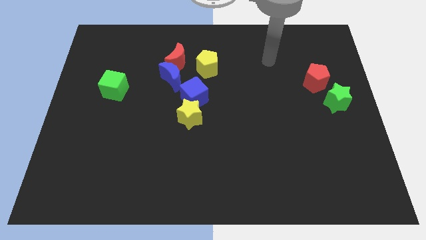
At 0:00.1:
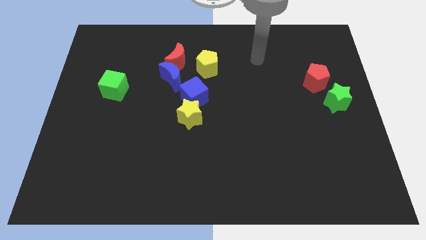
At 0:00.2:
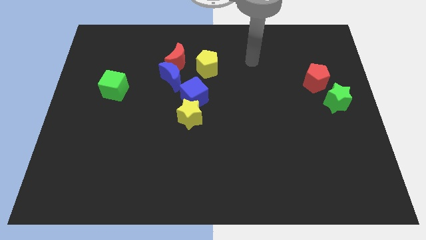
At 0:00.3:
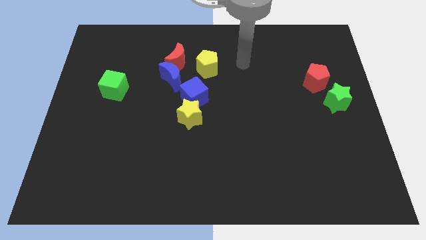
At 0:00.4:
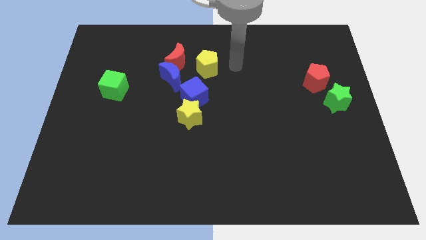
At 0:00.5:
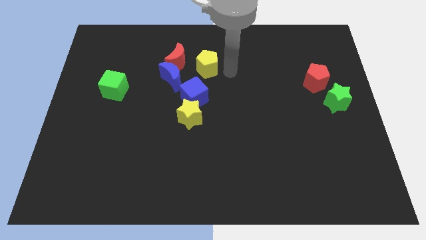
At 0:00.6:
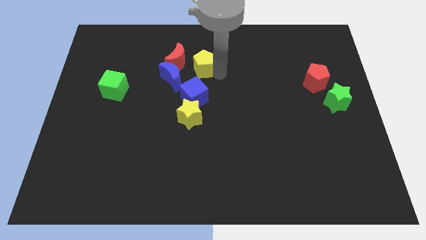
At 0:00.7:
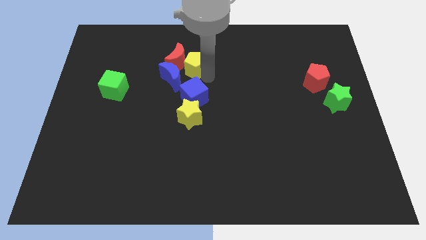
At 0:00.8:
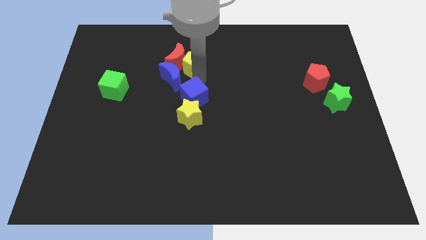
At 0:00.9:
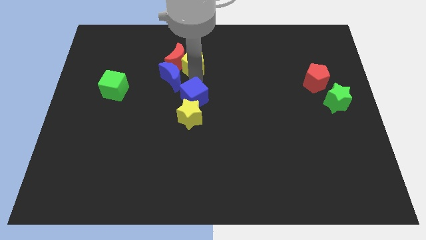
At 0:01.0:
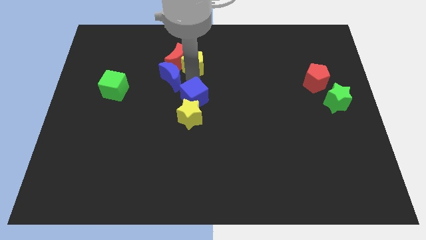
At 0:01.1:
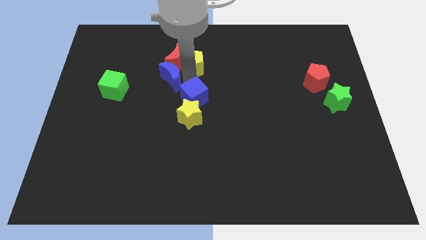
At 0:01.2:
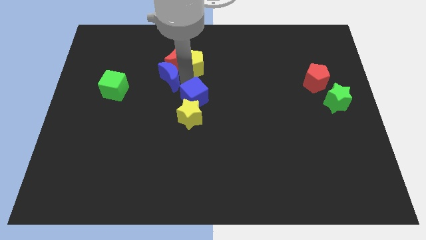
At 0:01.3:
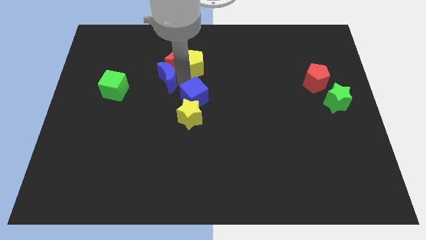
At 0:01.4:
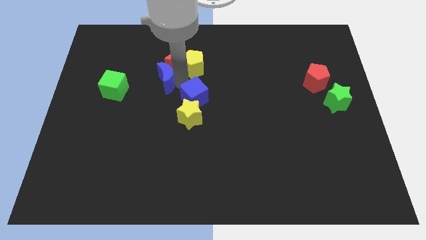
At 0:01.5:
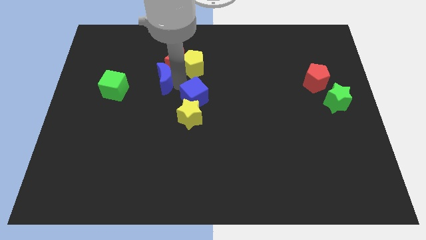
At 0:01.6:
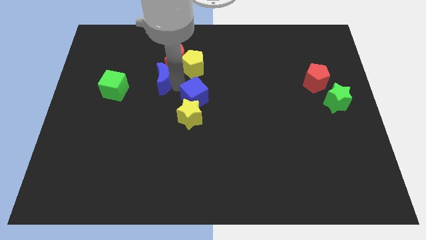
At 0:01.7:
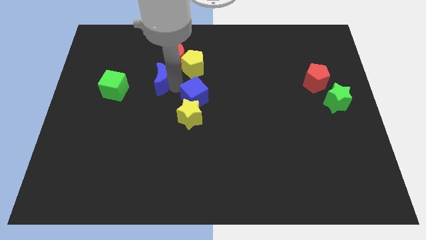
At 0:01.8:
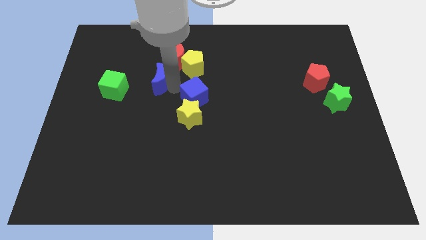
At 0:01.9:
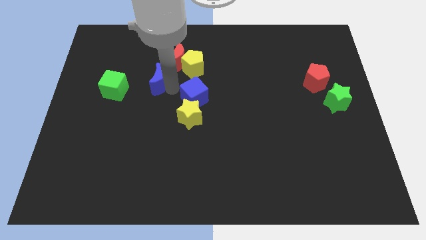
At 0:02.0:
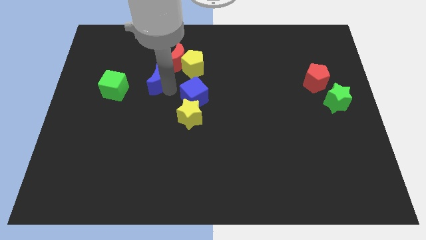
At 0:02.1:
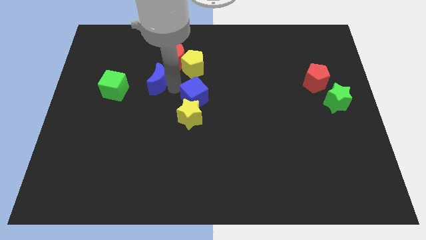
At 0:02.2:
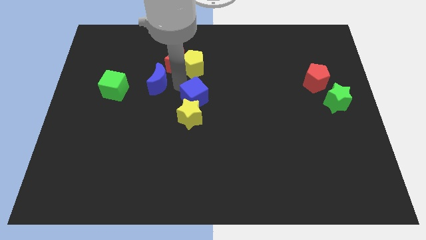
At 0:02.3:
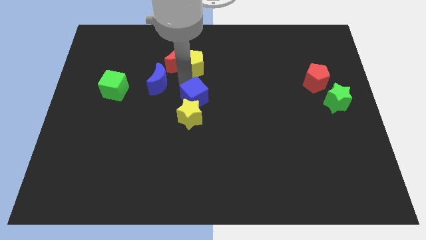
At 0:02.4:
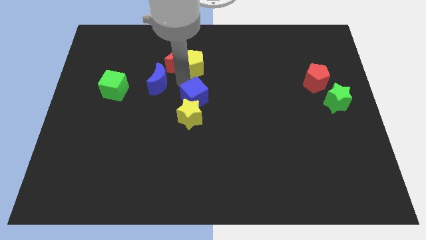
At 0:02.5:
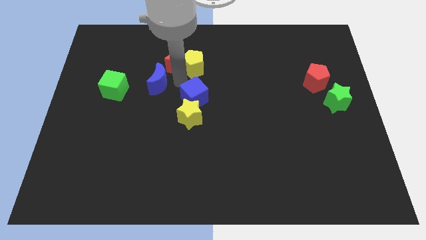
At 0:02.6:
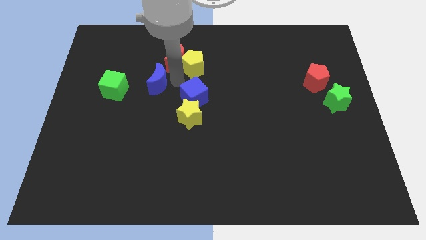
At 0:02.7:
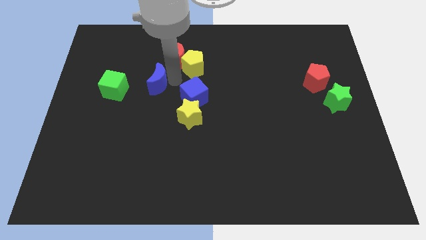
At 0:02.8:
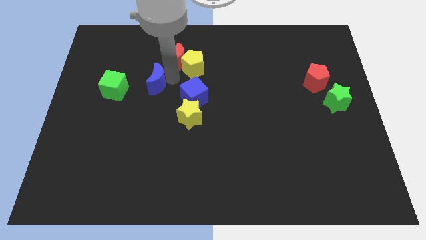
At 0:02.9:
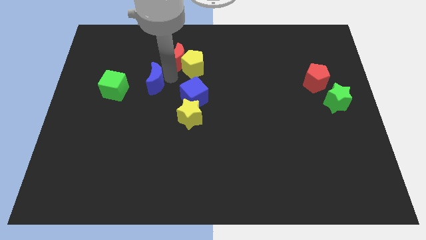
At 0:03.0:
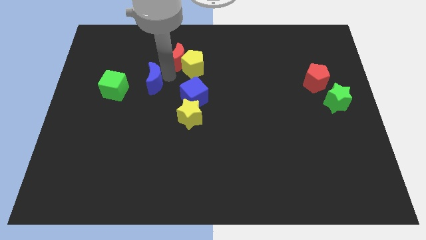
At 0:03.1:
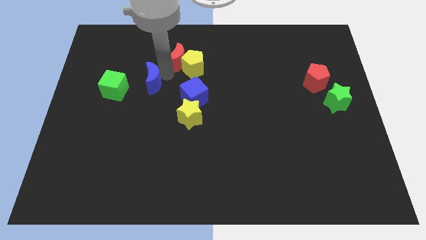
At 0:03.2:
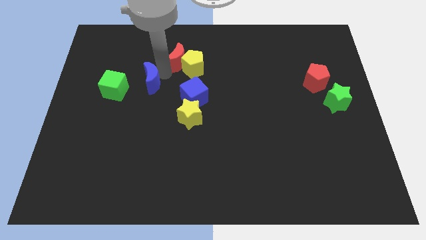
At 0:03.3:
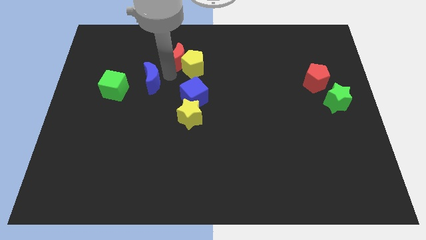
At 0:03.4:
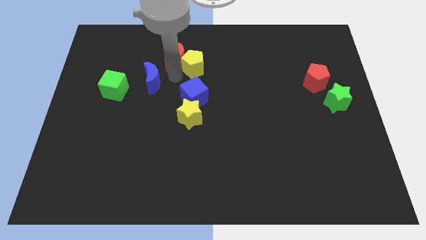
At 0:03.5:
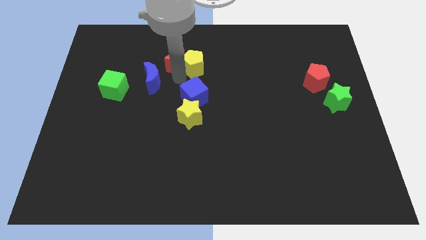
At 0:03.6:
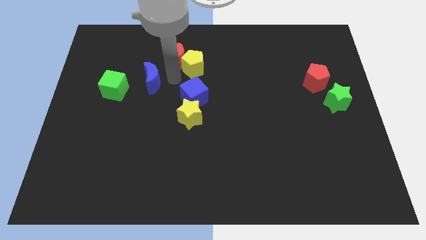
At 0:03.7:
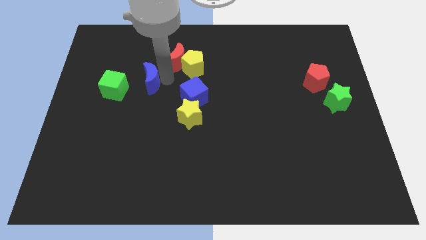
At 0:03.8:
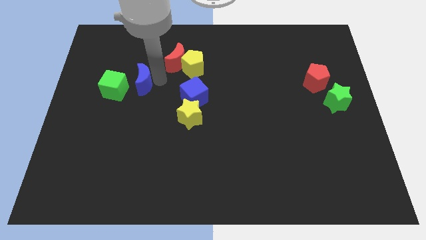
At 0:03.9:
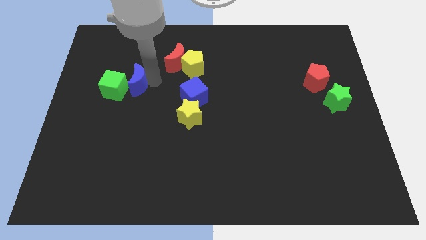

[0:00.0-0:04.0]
push the blue moon close to the green cube

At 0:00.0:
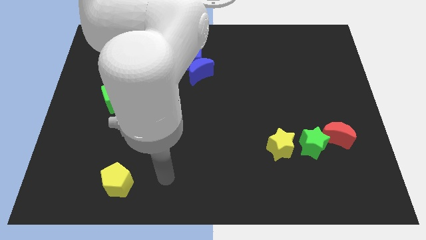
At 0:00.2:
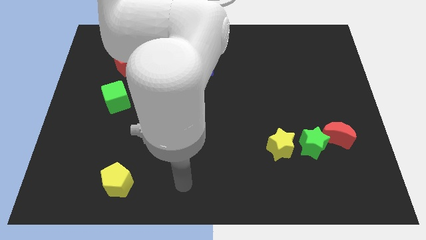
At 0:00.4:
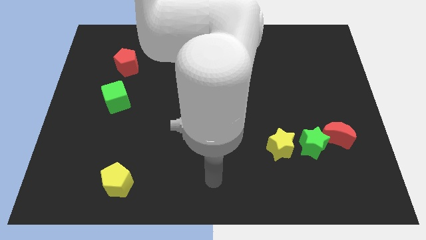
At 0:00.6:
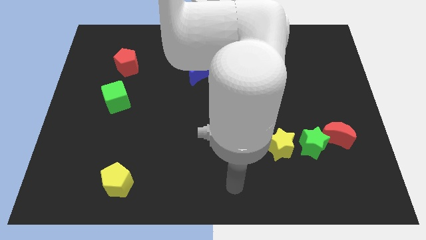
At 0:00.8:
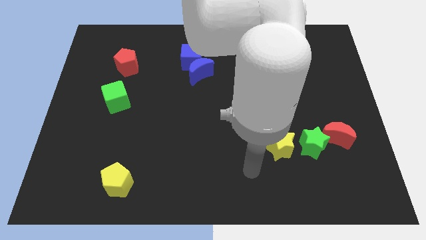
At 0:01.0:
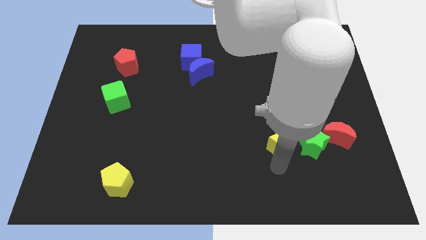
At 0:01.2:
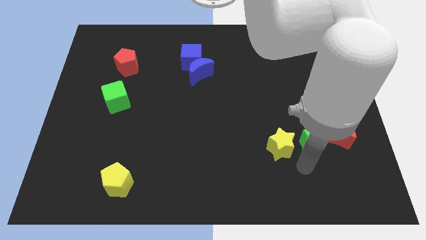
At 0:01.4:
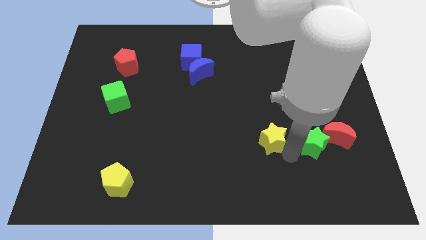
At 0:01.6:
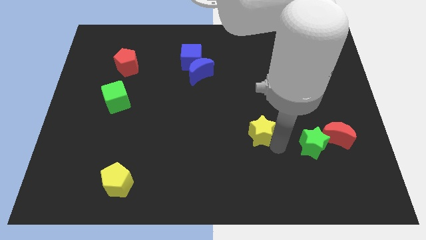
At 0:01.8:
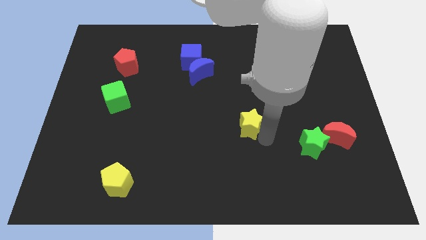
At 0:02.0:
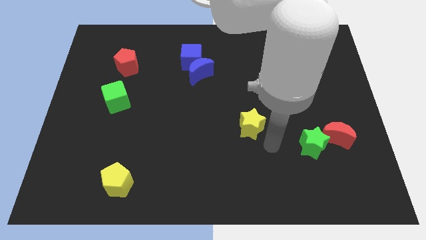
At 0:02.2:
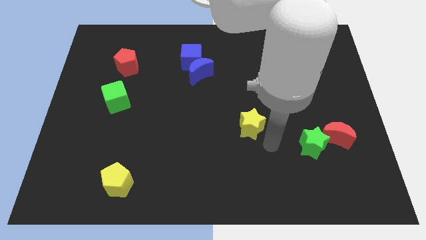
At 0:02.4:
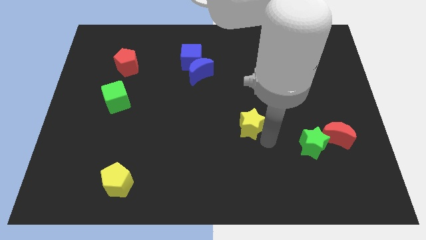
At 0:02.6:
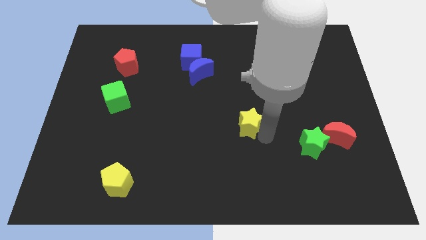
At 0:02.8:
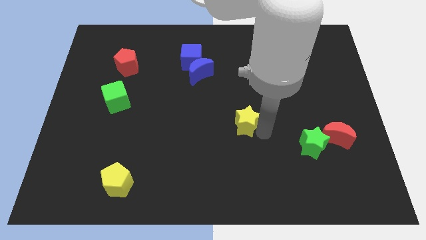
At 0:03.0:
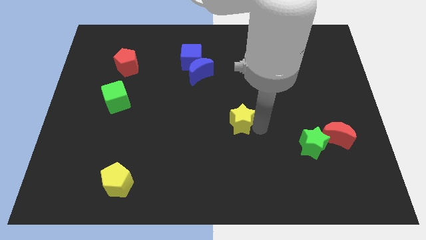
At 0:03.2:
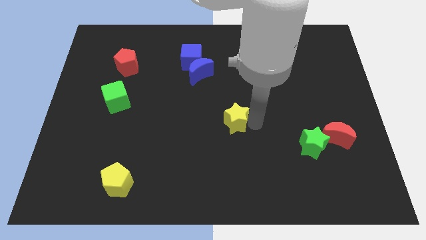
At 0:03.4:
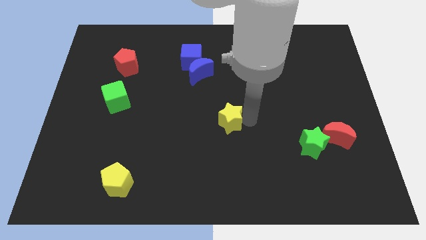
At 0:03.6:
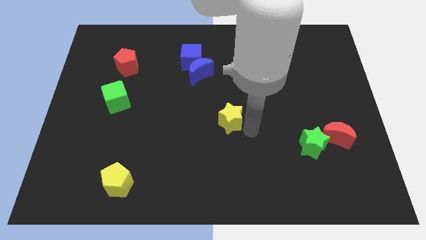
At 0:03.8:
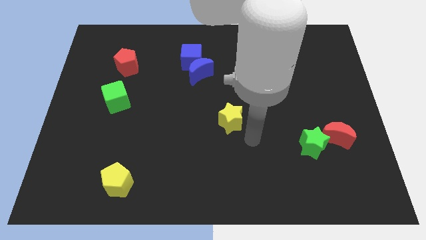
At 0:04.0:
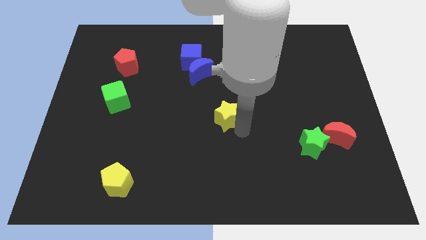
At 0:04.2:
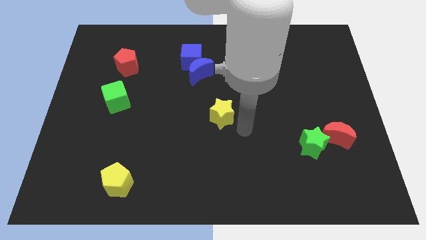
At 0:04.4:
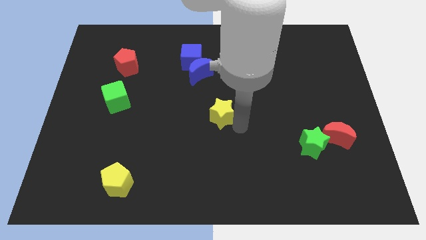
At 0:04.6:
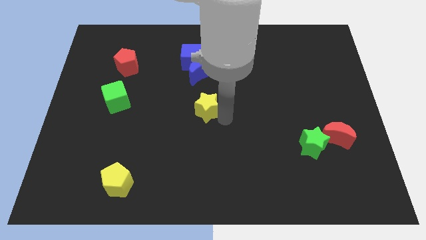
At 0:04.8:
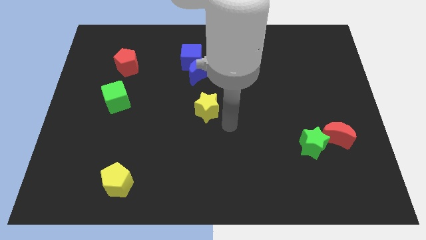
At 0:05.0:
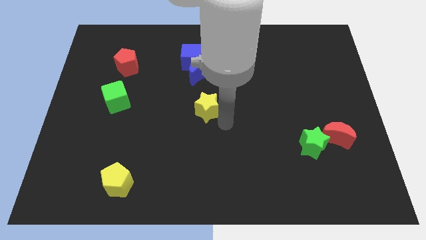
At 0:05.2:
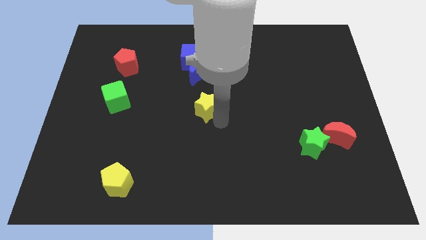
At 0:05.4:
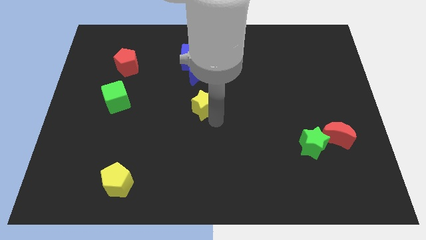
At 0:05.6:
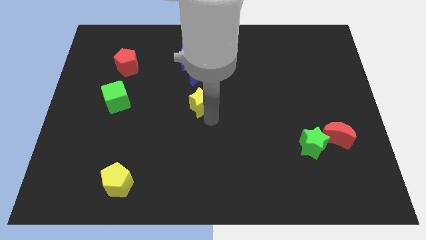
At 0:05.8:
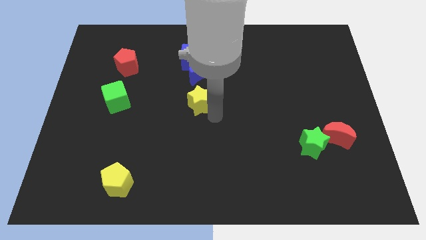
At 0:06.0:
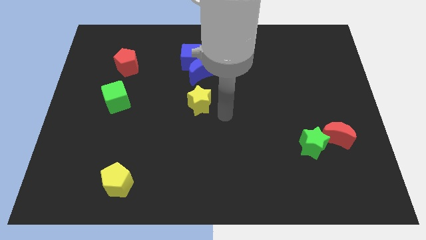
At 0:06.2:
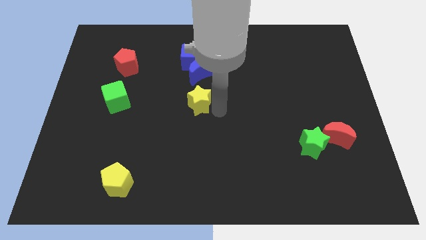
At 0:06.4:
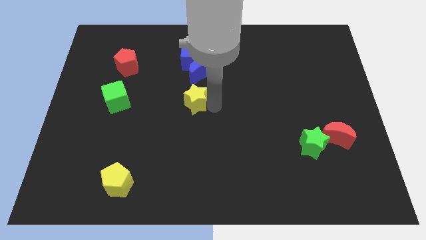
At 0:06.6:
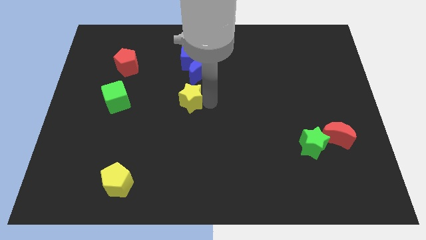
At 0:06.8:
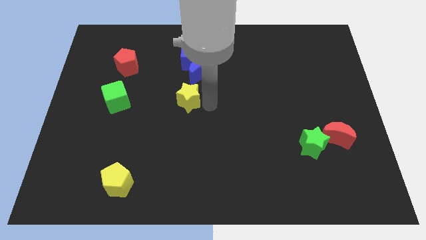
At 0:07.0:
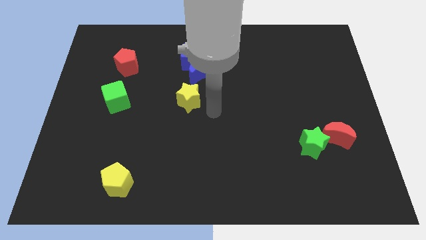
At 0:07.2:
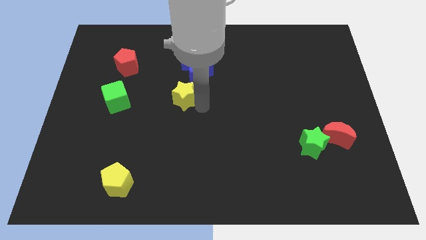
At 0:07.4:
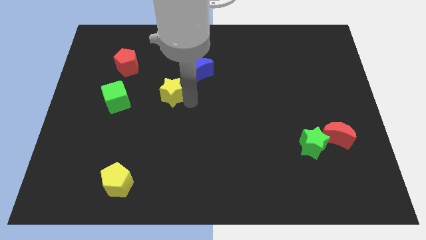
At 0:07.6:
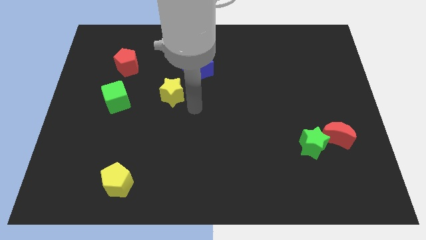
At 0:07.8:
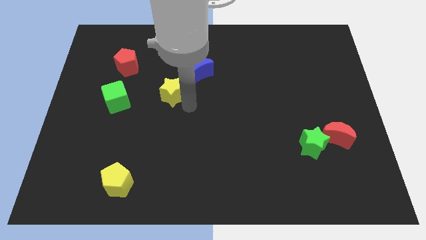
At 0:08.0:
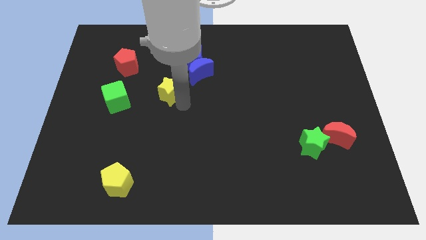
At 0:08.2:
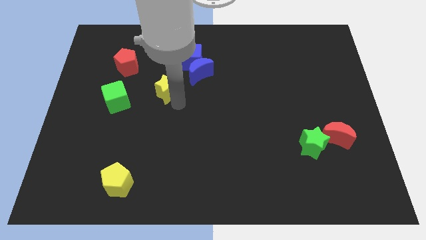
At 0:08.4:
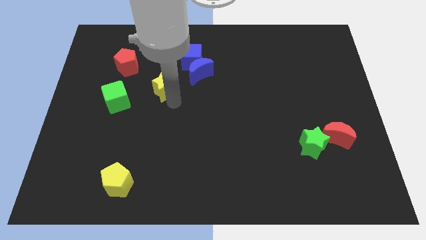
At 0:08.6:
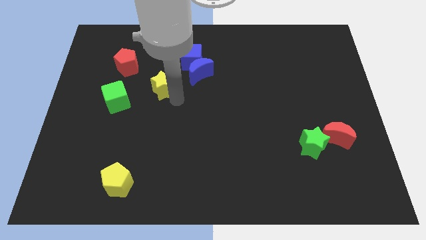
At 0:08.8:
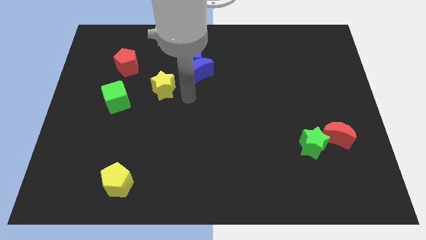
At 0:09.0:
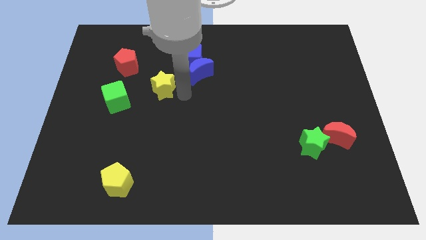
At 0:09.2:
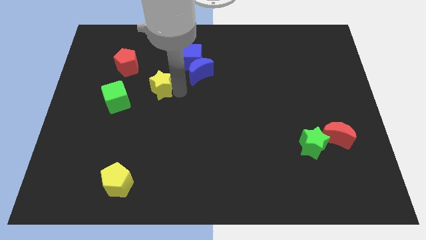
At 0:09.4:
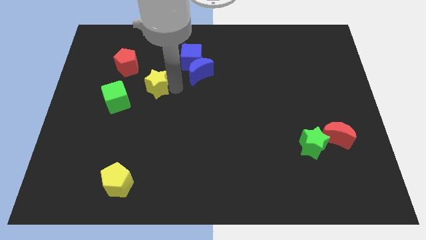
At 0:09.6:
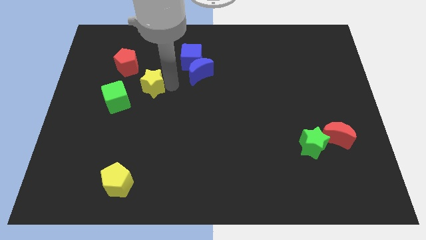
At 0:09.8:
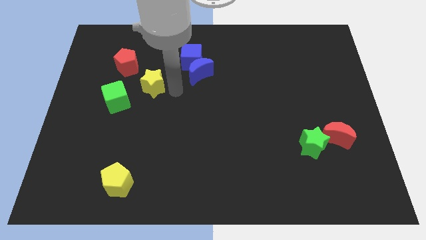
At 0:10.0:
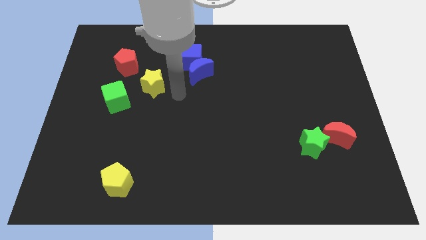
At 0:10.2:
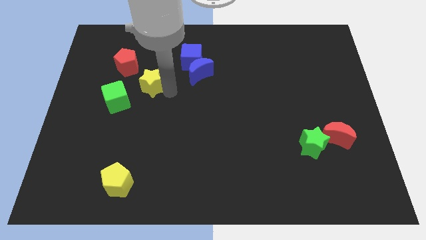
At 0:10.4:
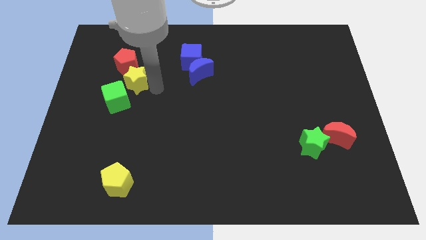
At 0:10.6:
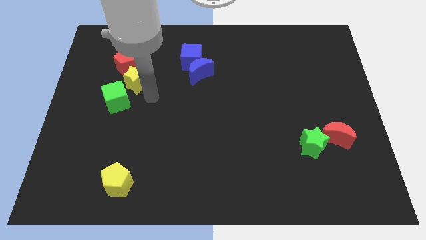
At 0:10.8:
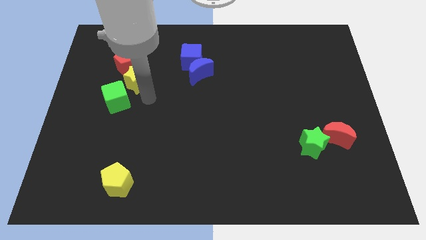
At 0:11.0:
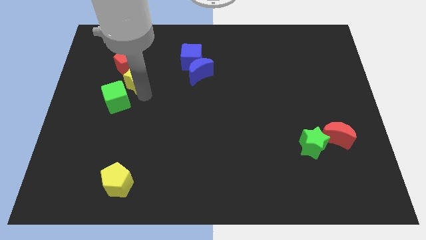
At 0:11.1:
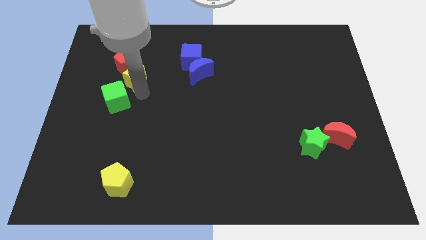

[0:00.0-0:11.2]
move the yellow star towards the red pentagon
